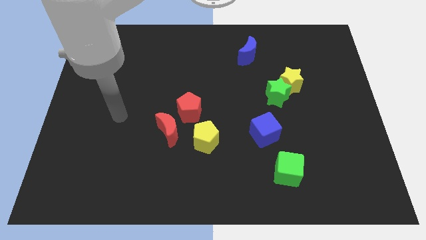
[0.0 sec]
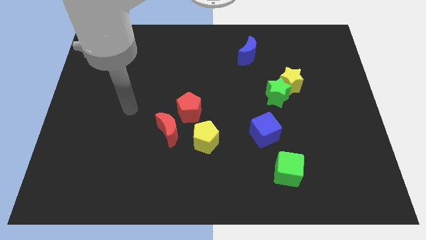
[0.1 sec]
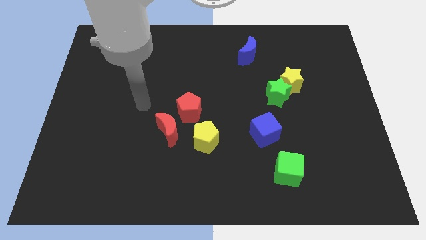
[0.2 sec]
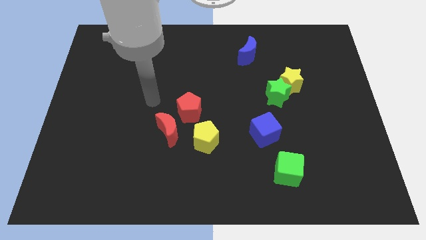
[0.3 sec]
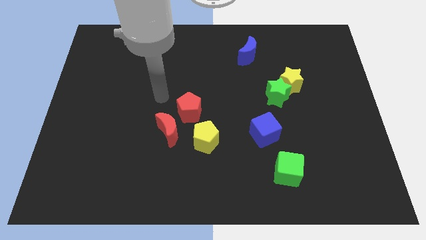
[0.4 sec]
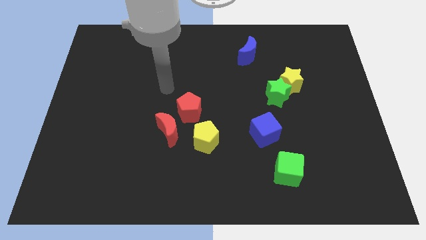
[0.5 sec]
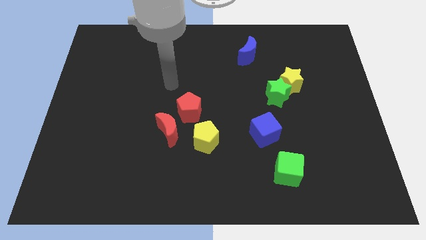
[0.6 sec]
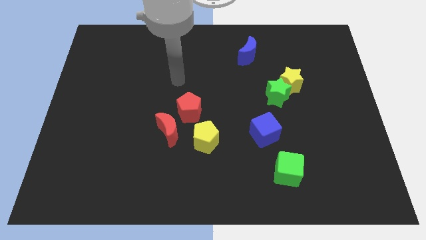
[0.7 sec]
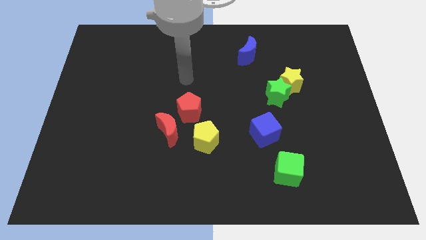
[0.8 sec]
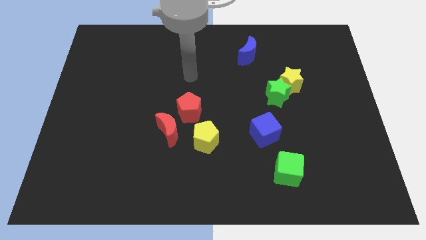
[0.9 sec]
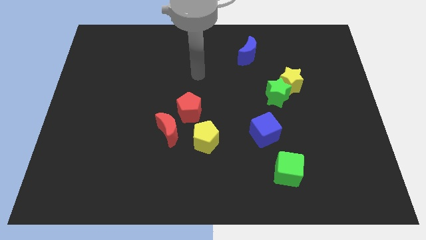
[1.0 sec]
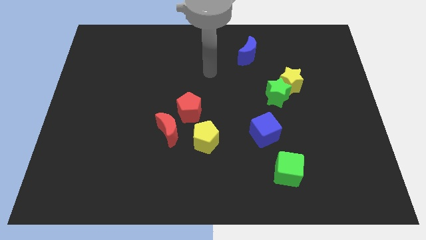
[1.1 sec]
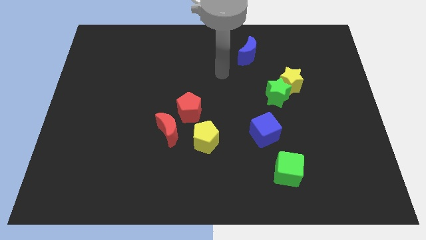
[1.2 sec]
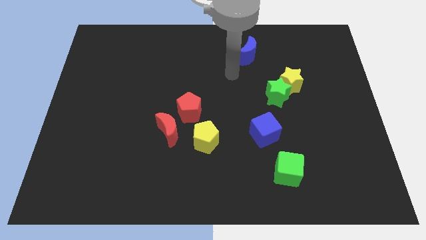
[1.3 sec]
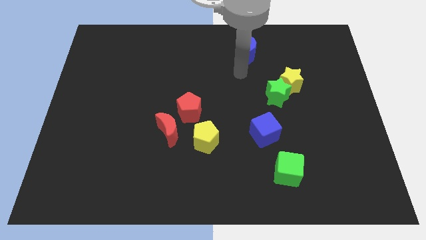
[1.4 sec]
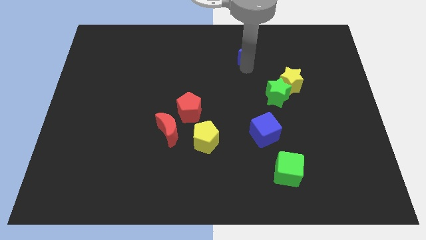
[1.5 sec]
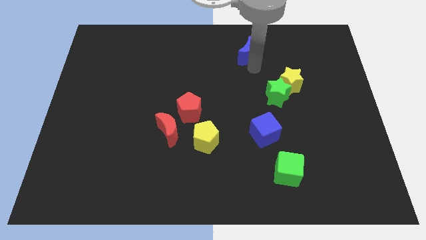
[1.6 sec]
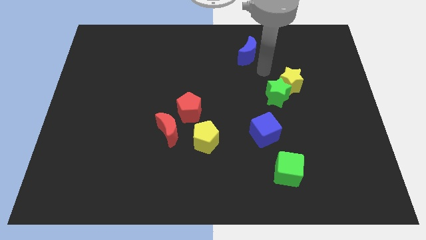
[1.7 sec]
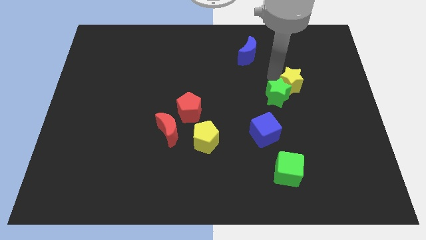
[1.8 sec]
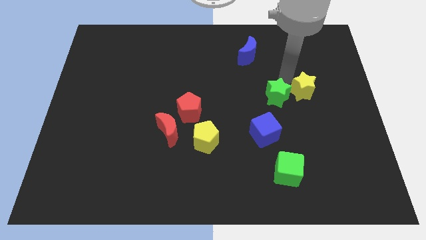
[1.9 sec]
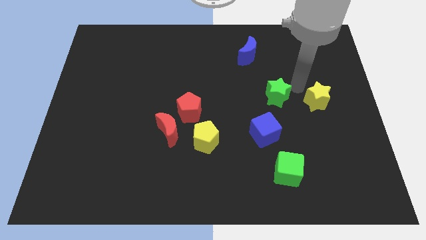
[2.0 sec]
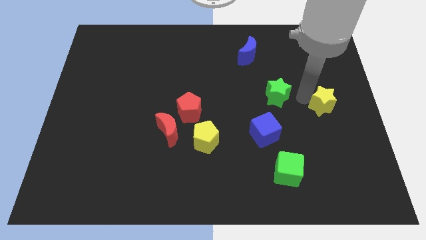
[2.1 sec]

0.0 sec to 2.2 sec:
pull the green star apart from the yellow star

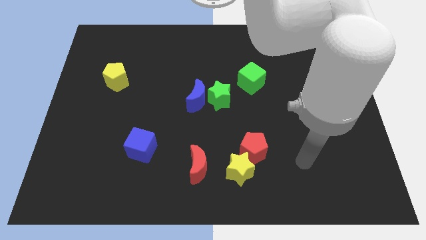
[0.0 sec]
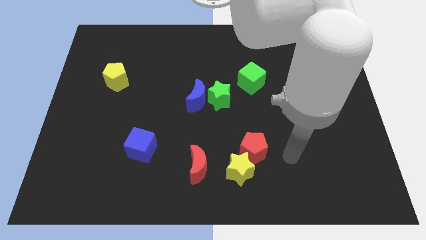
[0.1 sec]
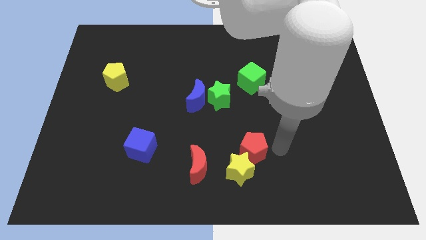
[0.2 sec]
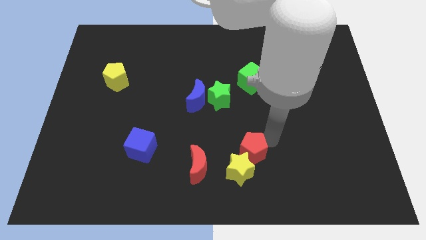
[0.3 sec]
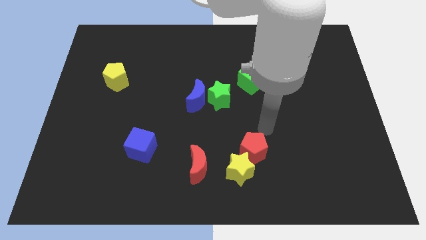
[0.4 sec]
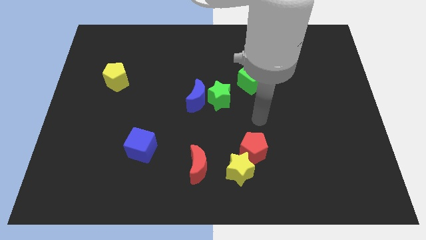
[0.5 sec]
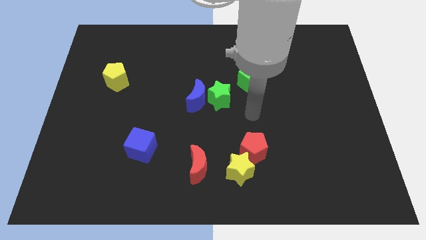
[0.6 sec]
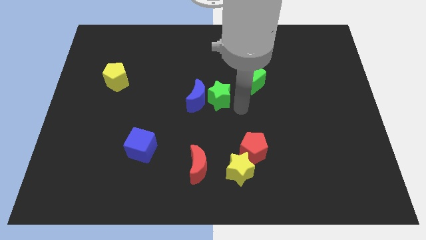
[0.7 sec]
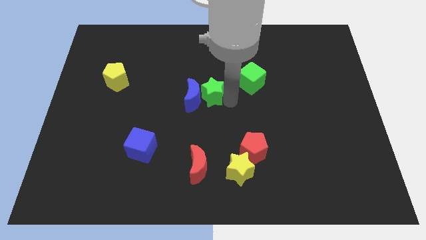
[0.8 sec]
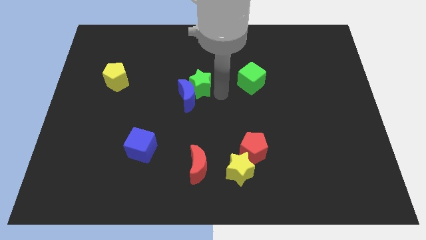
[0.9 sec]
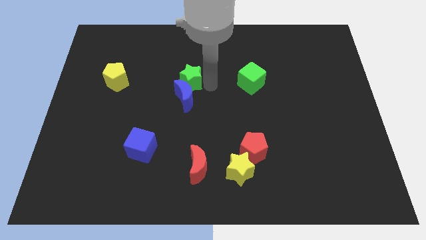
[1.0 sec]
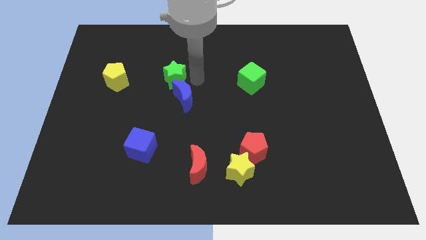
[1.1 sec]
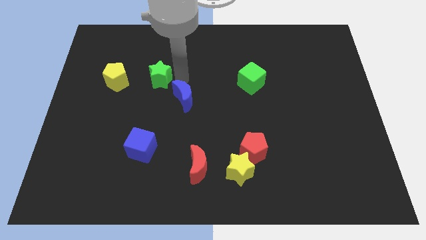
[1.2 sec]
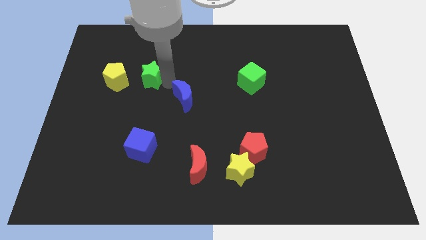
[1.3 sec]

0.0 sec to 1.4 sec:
pull the blue moon apart from the green star

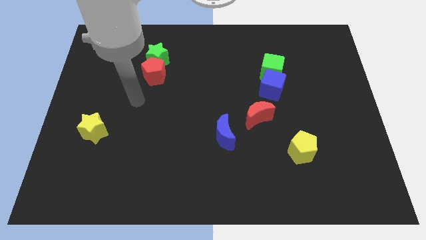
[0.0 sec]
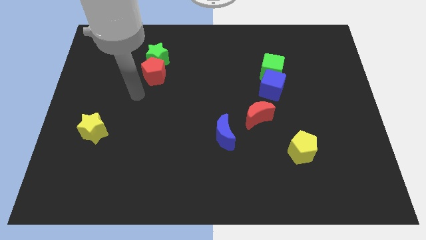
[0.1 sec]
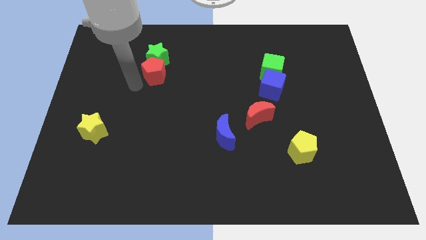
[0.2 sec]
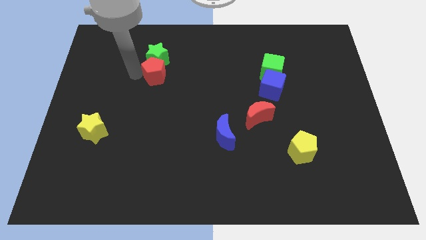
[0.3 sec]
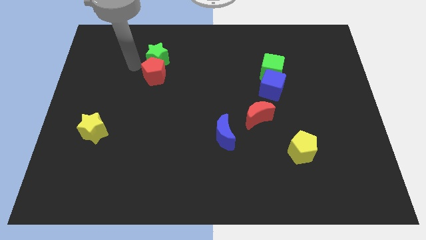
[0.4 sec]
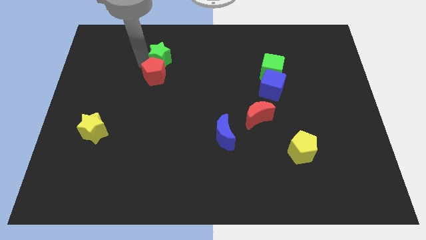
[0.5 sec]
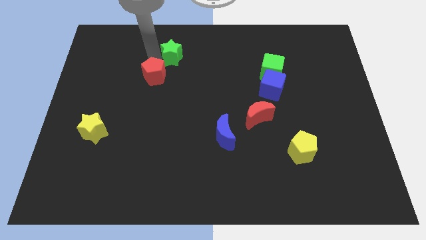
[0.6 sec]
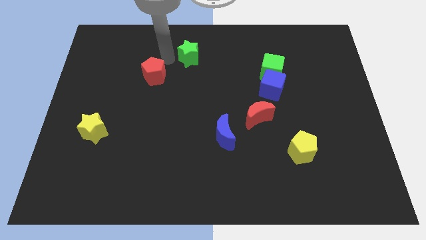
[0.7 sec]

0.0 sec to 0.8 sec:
separate the red pentagon from the green star

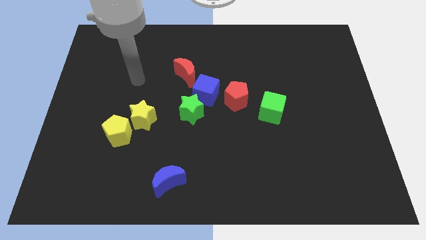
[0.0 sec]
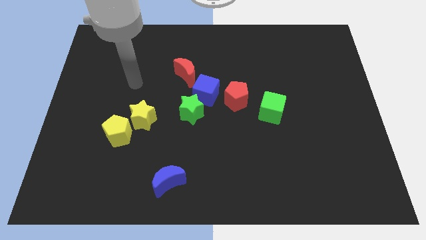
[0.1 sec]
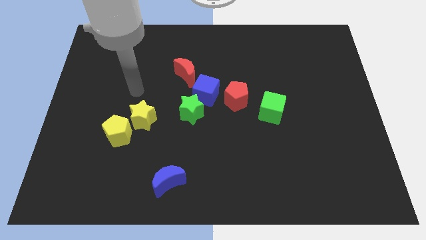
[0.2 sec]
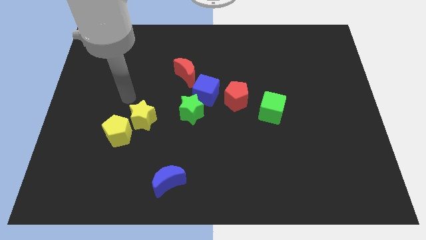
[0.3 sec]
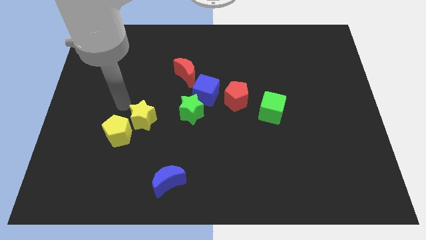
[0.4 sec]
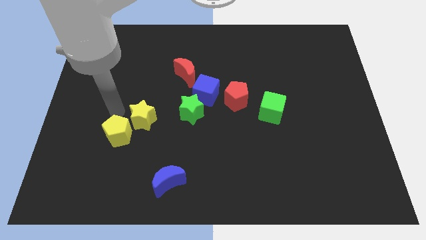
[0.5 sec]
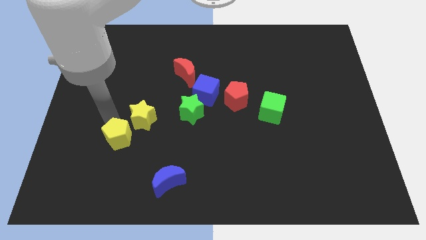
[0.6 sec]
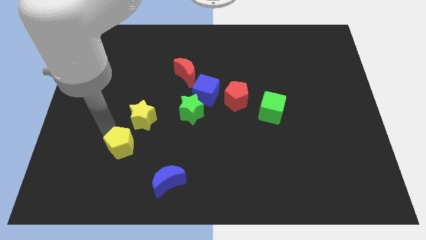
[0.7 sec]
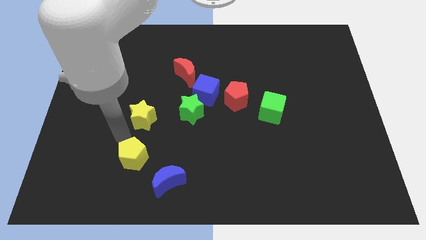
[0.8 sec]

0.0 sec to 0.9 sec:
move the yellow star away from the yellow pentagon

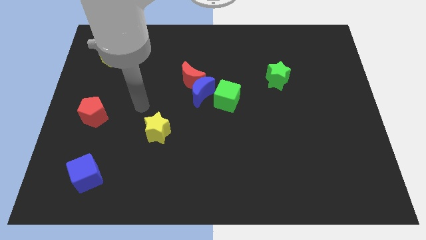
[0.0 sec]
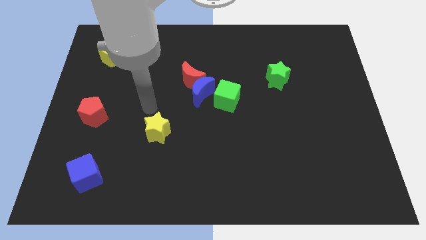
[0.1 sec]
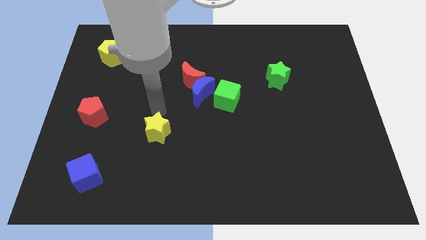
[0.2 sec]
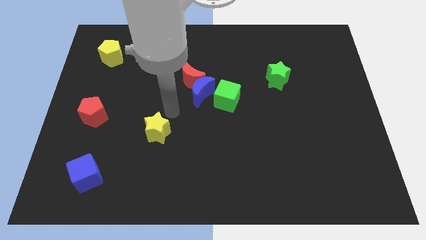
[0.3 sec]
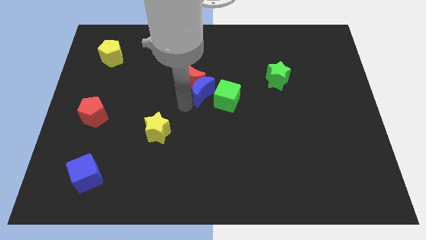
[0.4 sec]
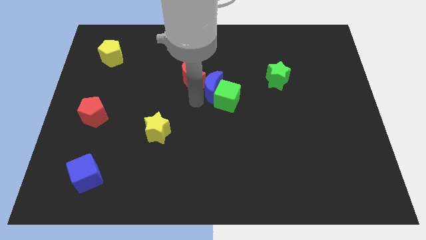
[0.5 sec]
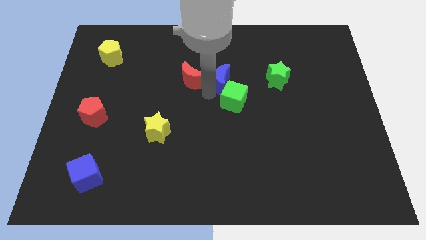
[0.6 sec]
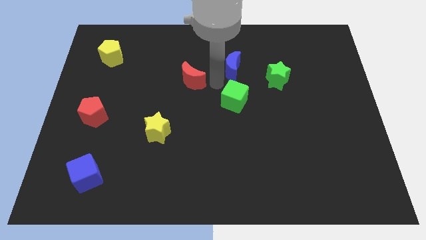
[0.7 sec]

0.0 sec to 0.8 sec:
pull the red moon apart from the blue moon

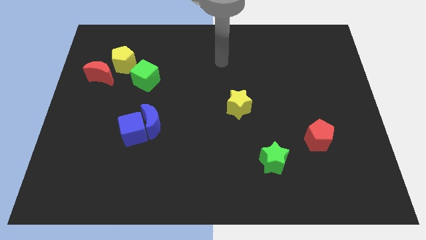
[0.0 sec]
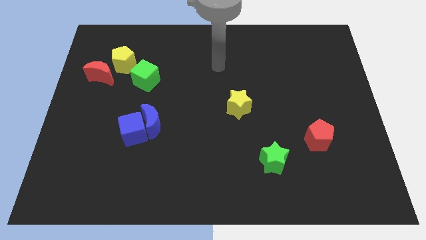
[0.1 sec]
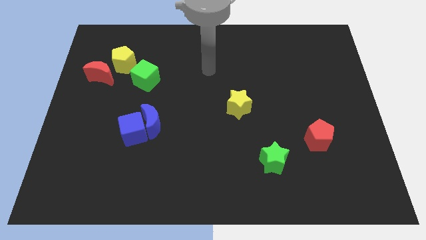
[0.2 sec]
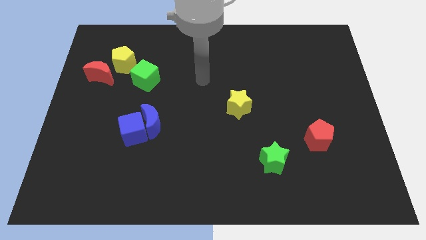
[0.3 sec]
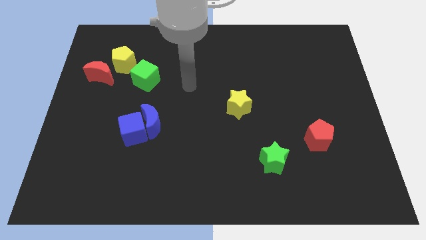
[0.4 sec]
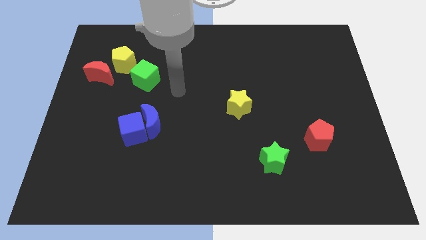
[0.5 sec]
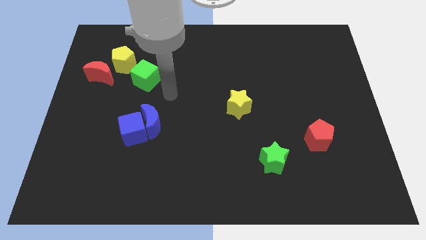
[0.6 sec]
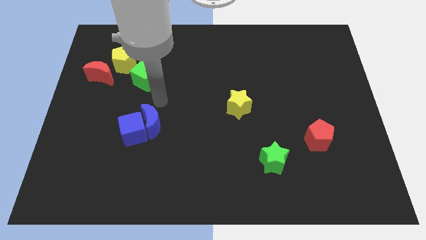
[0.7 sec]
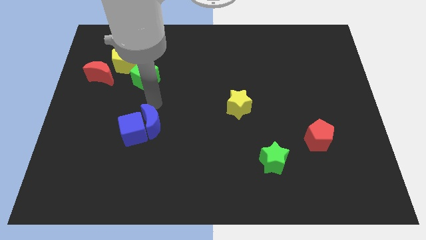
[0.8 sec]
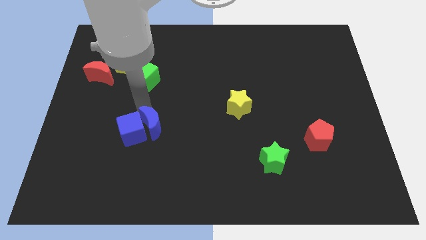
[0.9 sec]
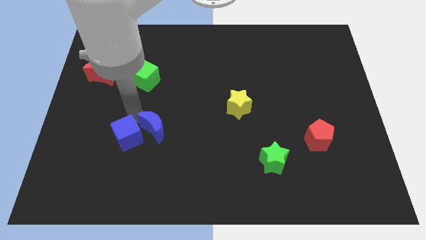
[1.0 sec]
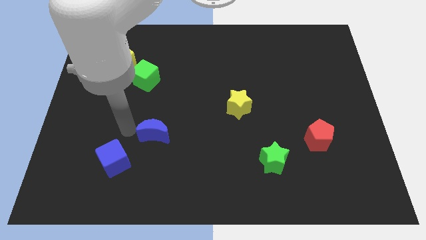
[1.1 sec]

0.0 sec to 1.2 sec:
move the blue moon away from the blue cube

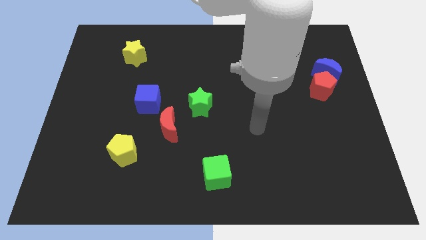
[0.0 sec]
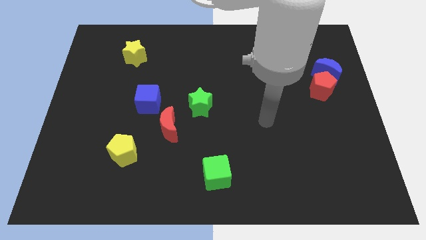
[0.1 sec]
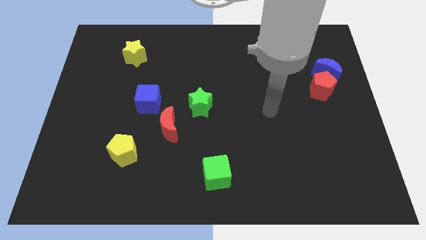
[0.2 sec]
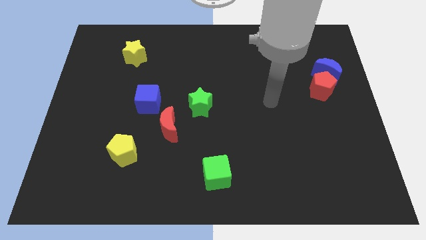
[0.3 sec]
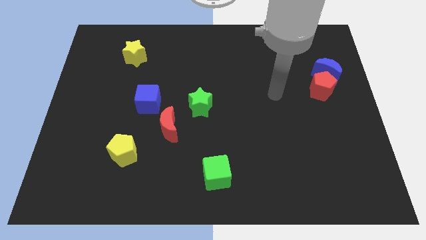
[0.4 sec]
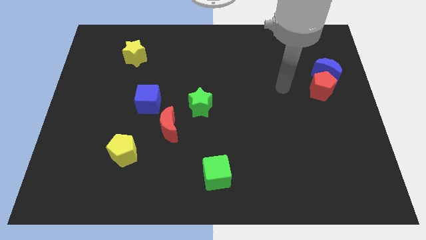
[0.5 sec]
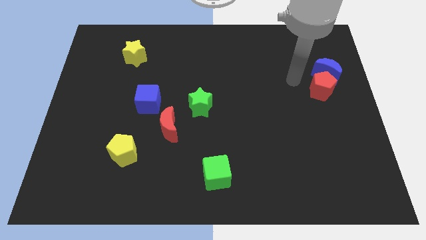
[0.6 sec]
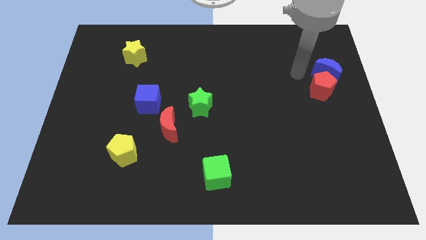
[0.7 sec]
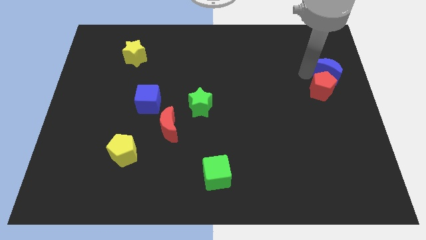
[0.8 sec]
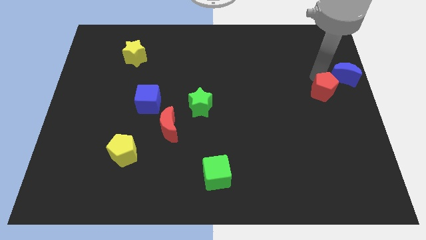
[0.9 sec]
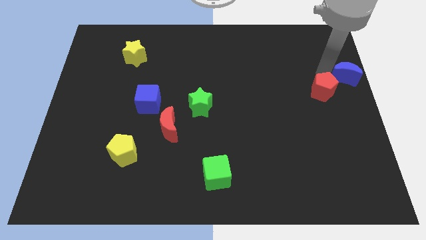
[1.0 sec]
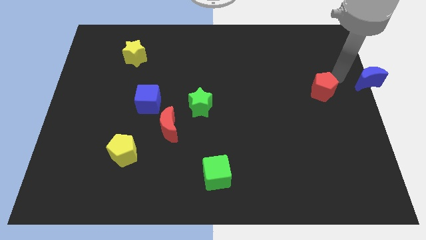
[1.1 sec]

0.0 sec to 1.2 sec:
pull the red pentagon apart from the blue moon

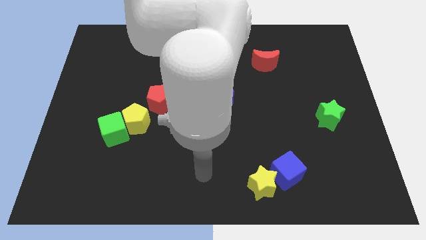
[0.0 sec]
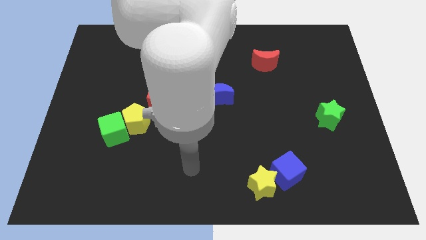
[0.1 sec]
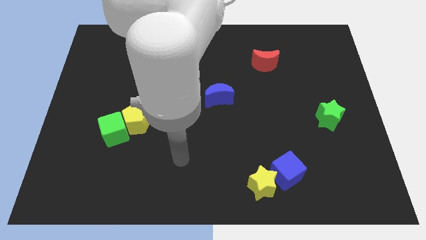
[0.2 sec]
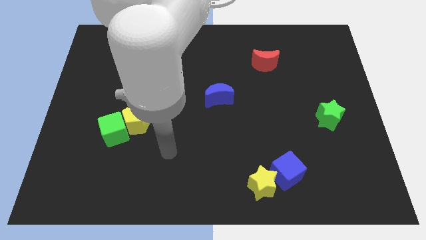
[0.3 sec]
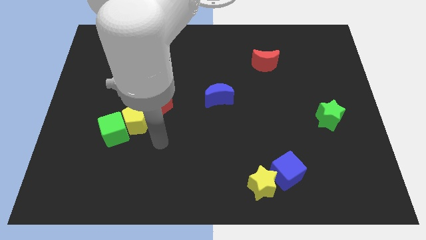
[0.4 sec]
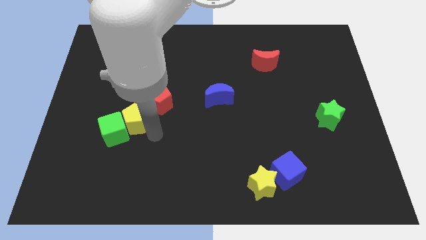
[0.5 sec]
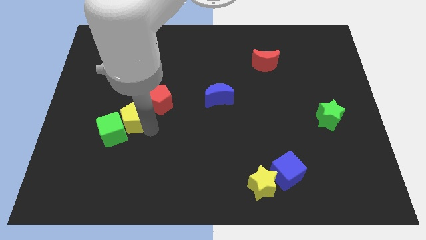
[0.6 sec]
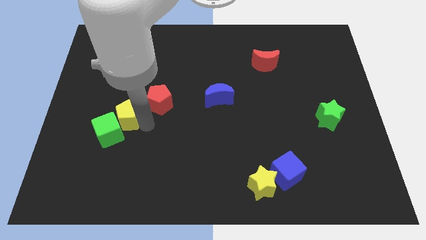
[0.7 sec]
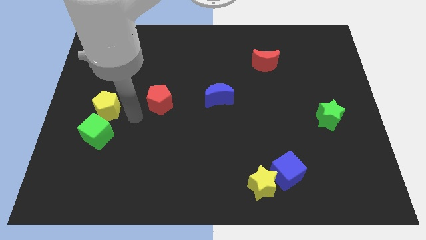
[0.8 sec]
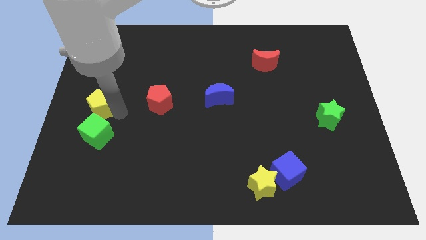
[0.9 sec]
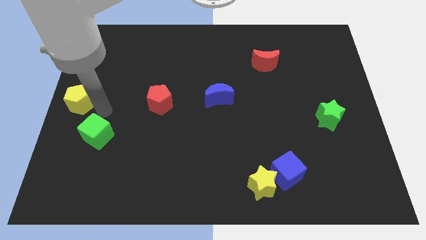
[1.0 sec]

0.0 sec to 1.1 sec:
separate the green cube from the yellow pentagon
